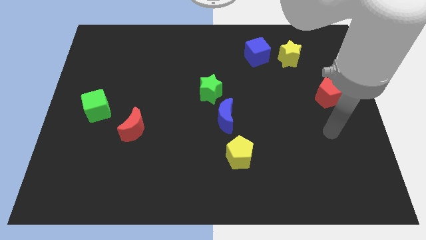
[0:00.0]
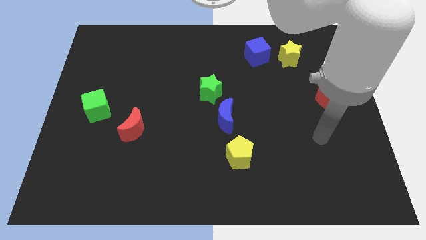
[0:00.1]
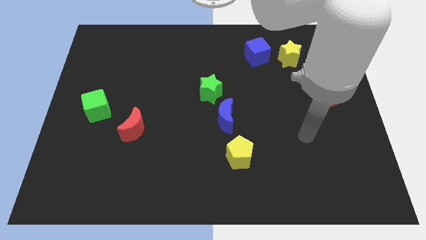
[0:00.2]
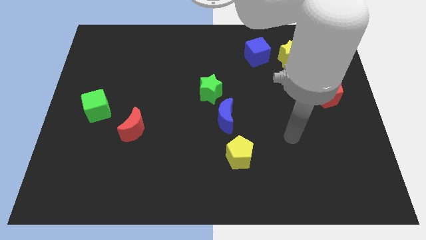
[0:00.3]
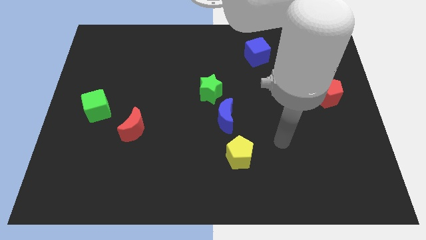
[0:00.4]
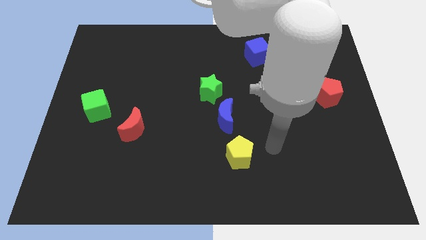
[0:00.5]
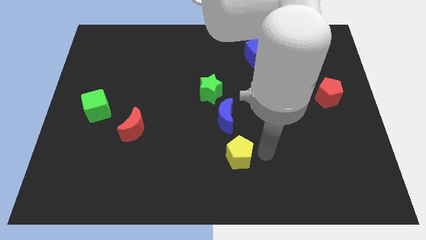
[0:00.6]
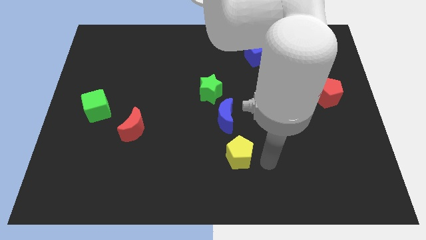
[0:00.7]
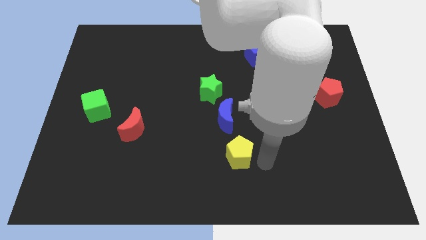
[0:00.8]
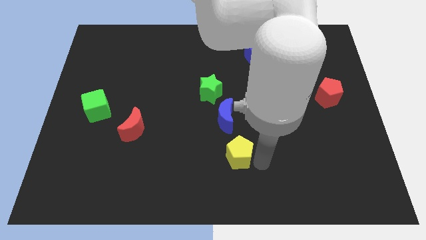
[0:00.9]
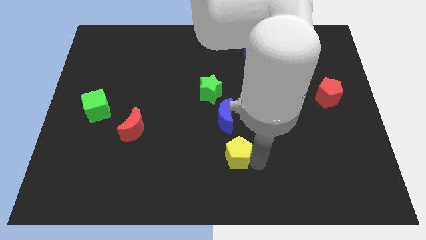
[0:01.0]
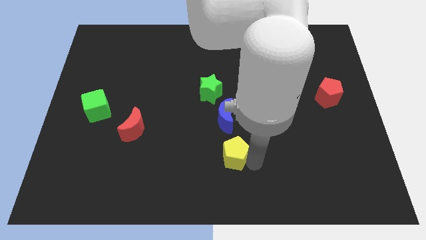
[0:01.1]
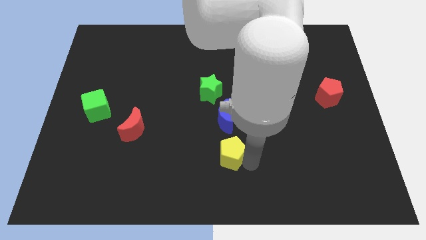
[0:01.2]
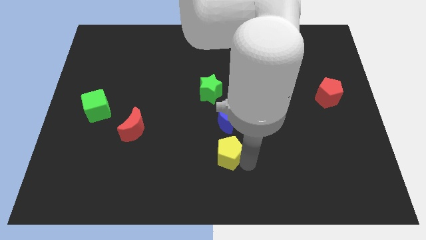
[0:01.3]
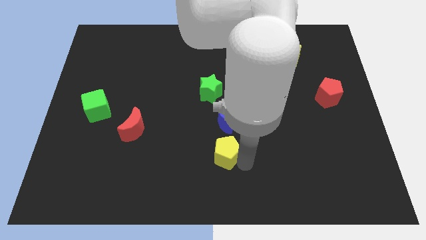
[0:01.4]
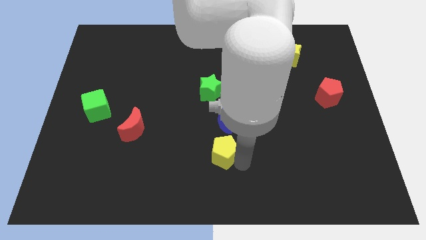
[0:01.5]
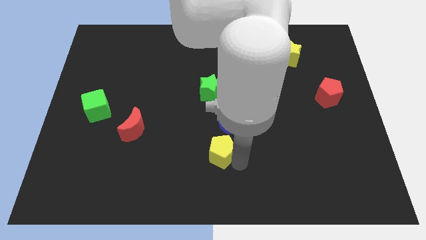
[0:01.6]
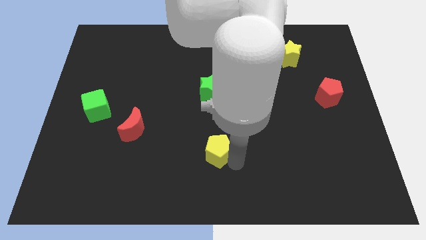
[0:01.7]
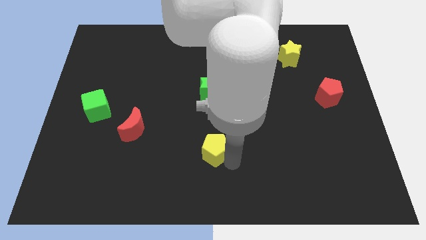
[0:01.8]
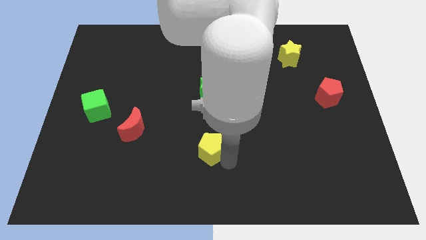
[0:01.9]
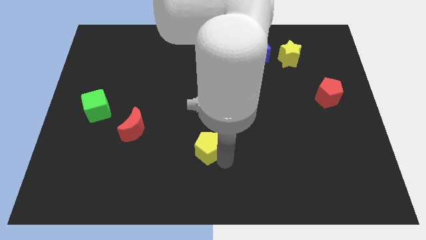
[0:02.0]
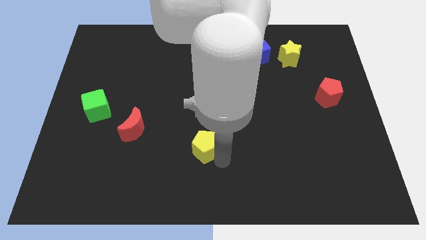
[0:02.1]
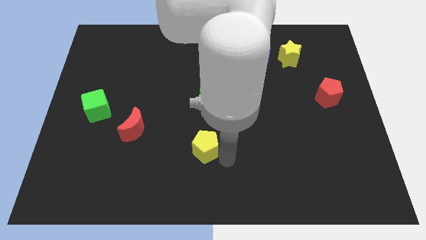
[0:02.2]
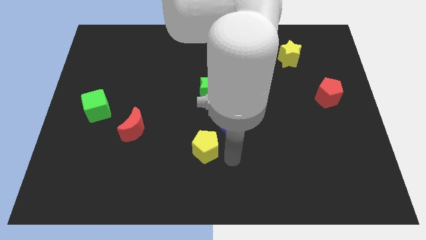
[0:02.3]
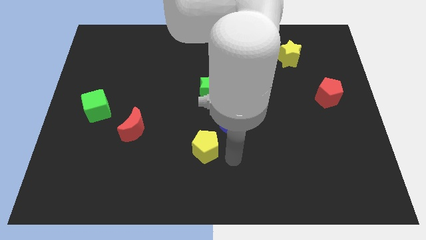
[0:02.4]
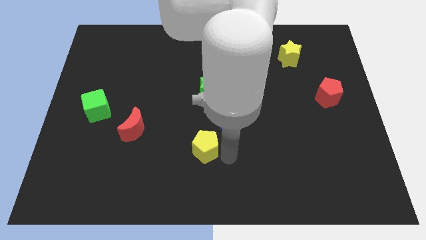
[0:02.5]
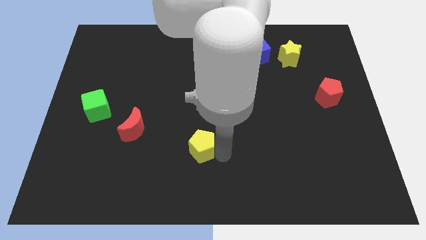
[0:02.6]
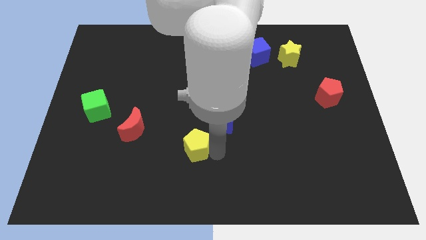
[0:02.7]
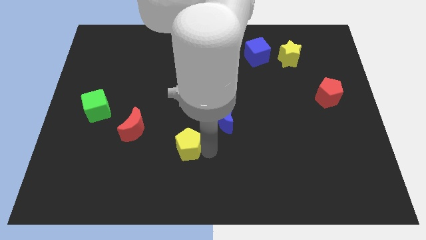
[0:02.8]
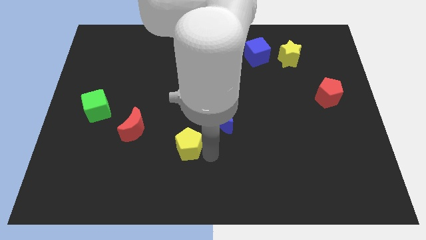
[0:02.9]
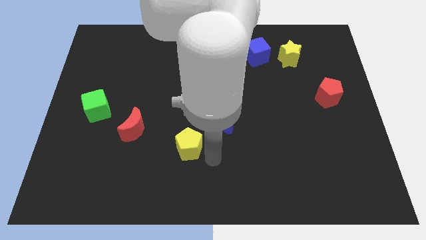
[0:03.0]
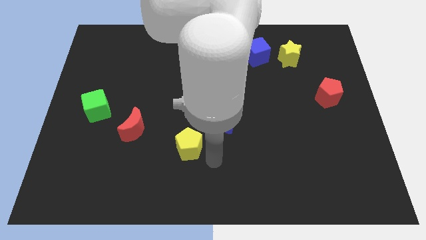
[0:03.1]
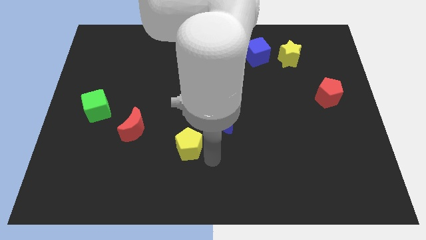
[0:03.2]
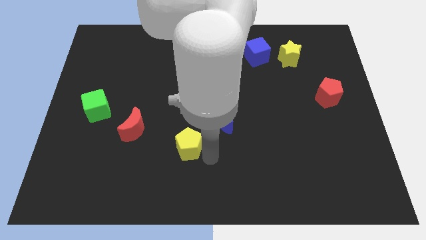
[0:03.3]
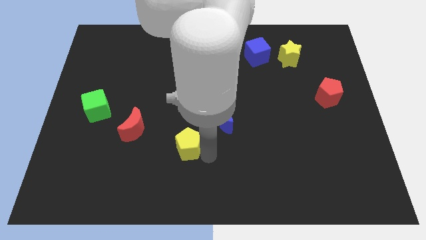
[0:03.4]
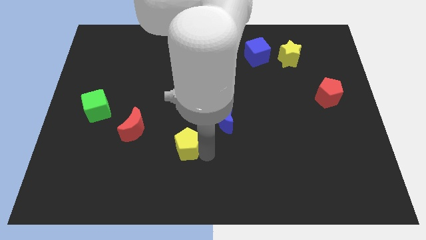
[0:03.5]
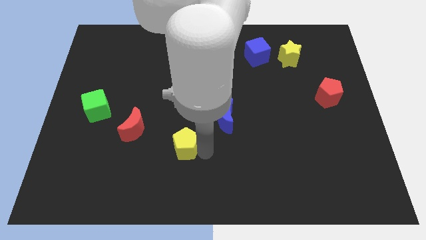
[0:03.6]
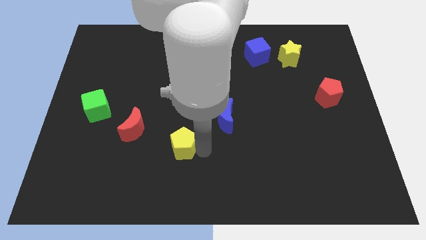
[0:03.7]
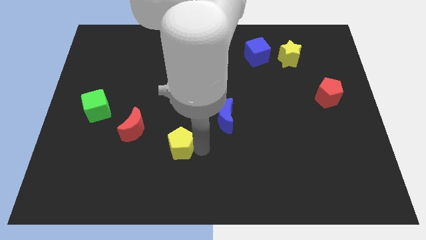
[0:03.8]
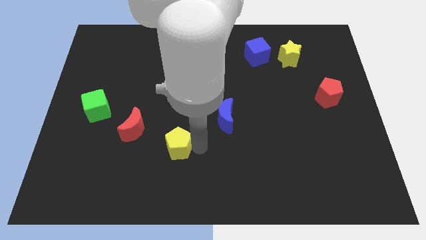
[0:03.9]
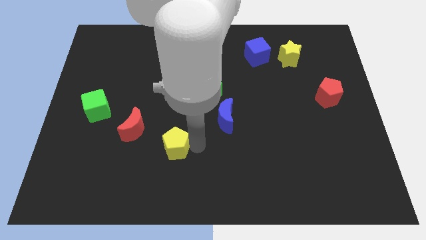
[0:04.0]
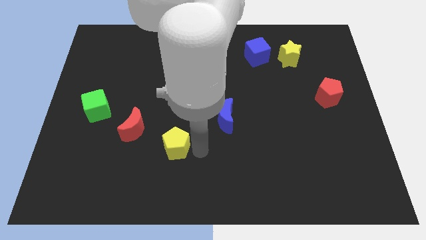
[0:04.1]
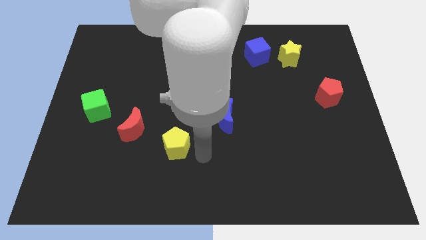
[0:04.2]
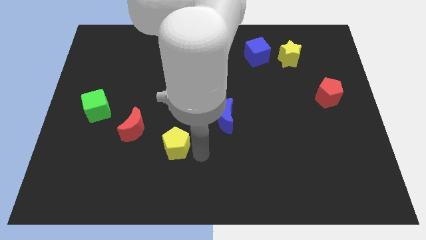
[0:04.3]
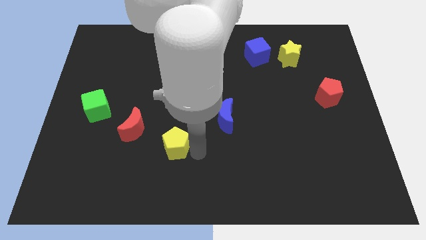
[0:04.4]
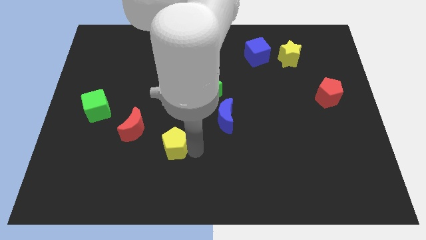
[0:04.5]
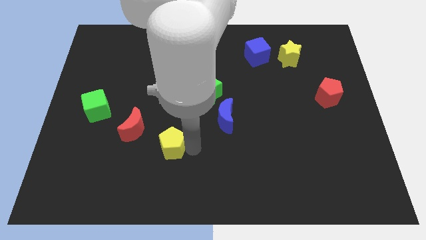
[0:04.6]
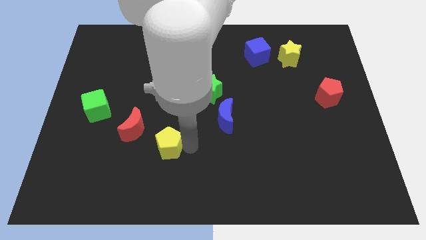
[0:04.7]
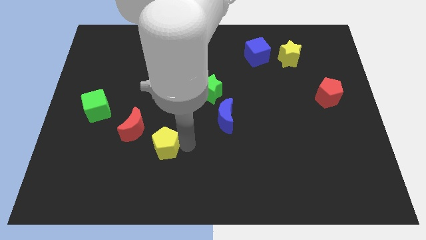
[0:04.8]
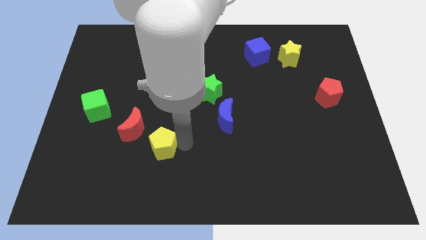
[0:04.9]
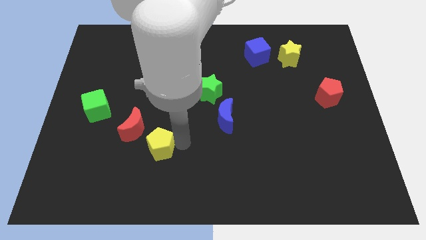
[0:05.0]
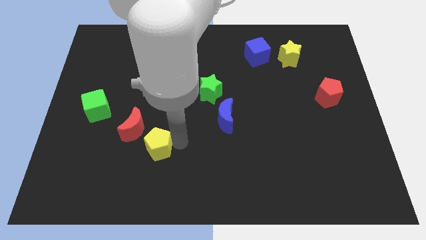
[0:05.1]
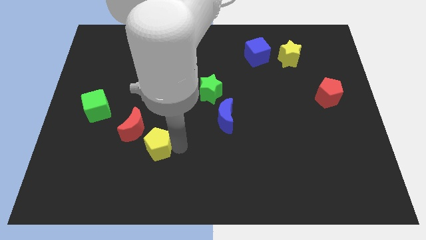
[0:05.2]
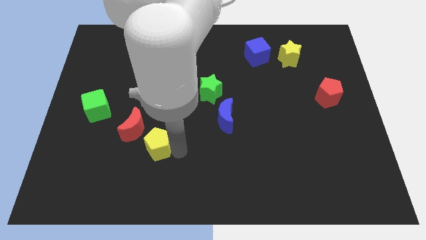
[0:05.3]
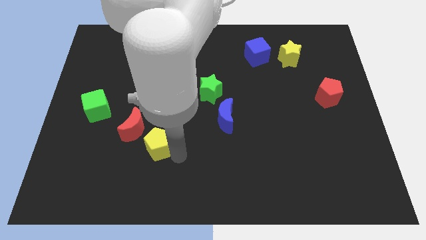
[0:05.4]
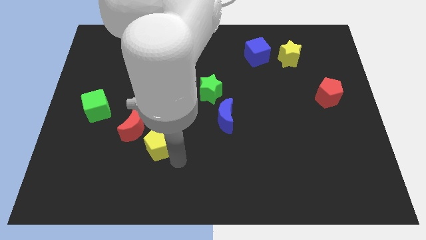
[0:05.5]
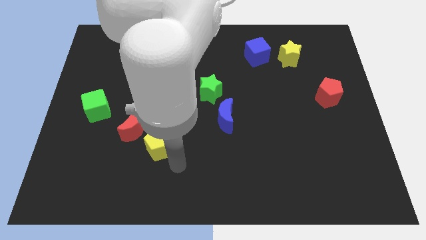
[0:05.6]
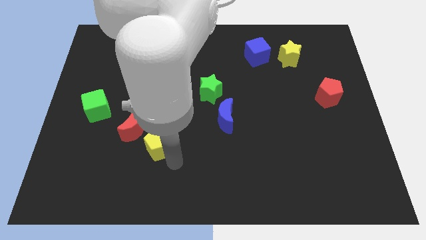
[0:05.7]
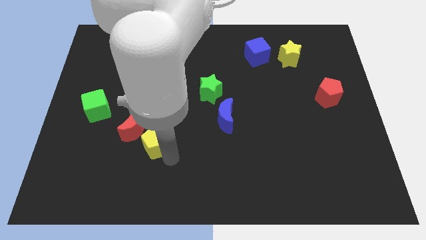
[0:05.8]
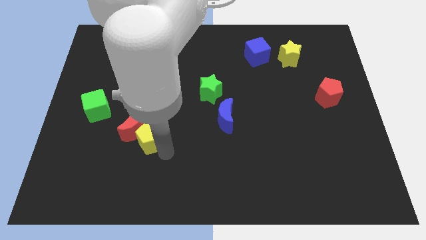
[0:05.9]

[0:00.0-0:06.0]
move the yellow pentagon next to the red moon

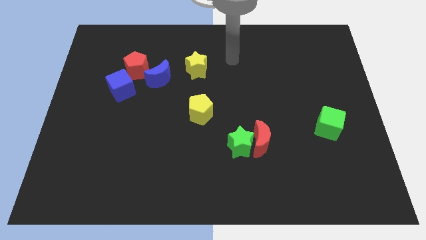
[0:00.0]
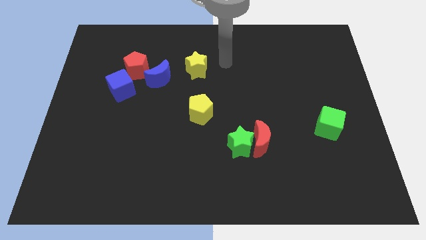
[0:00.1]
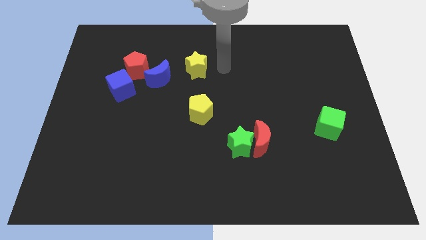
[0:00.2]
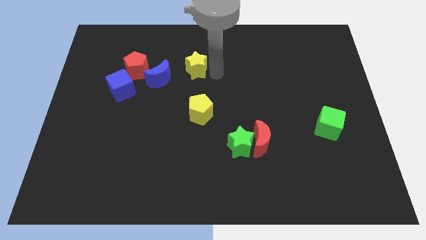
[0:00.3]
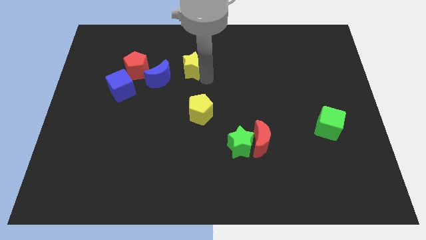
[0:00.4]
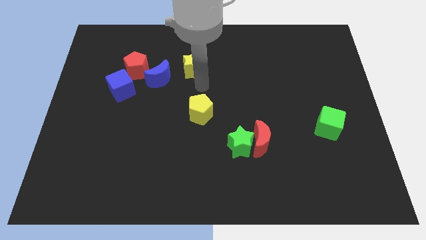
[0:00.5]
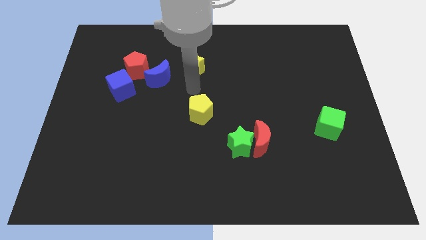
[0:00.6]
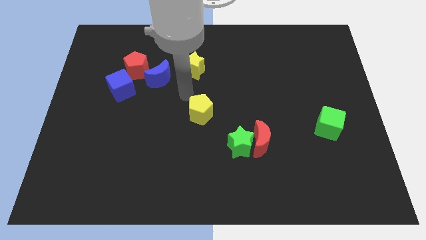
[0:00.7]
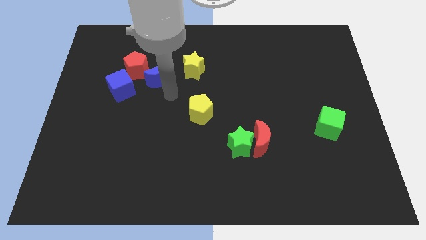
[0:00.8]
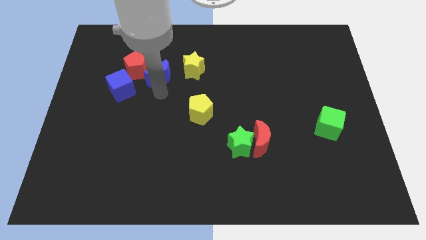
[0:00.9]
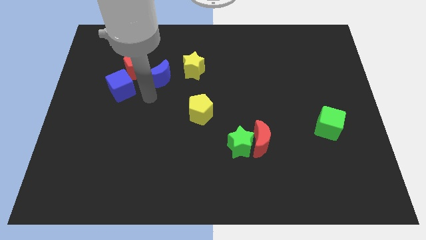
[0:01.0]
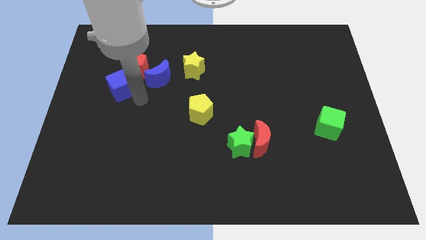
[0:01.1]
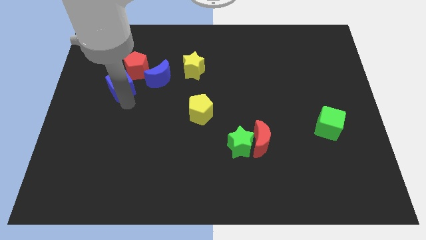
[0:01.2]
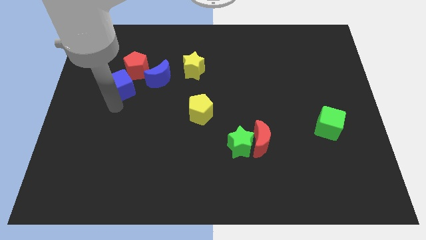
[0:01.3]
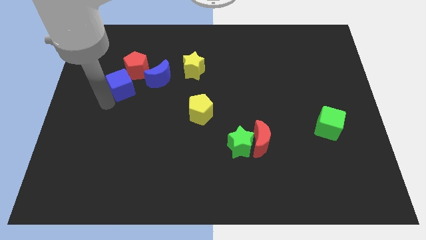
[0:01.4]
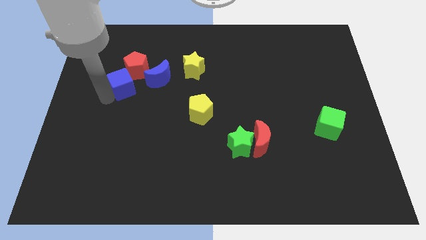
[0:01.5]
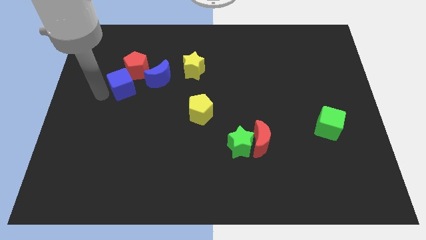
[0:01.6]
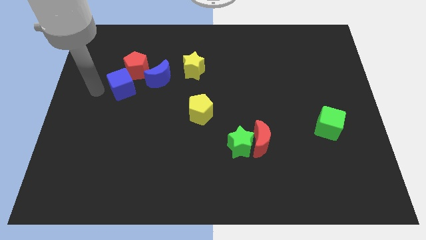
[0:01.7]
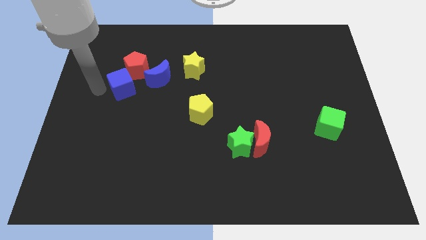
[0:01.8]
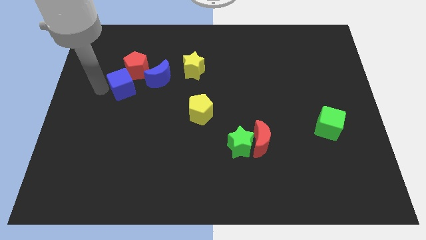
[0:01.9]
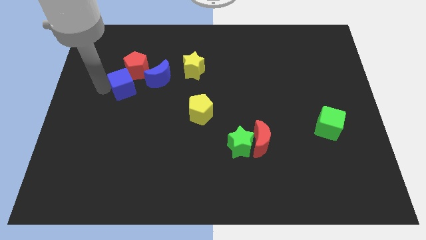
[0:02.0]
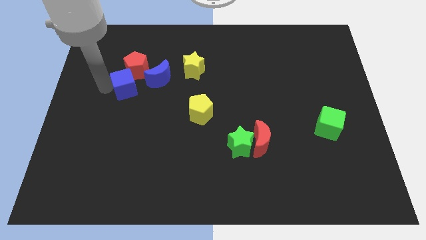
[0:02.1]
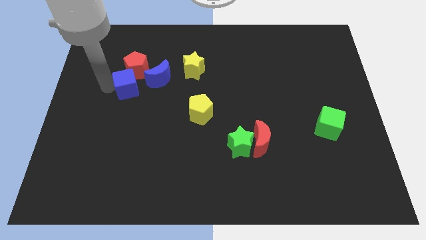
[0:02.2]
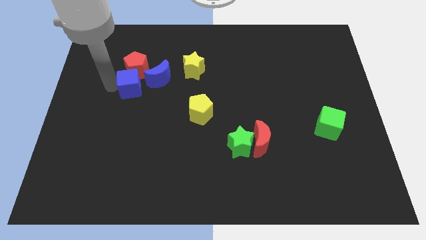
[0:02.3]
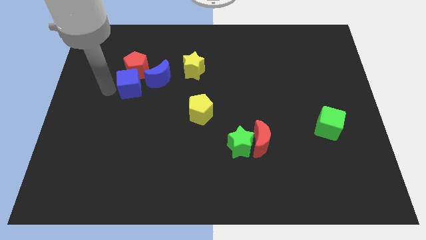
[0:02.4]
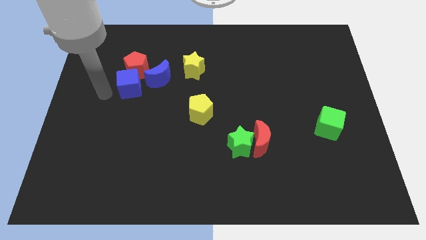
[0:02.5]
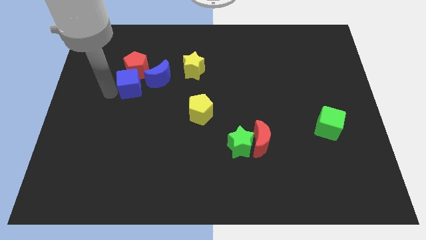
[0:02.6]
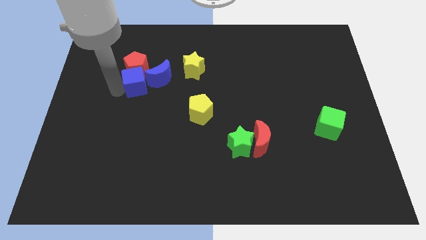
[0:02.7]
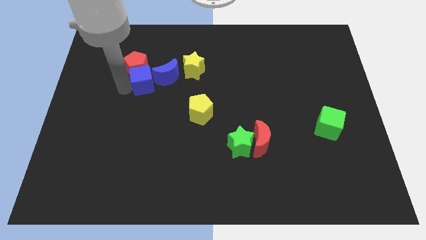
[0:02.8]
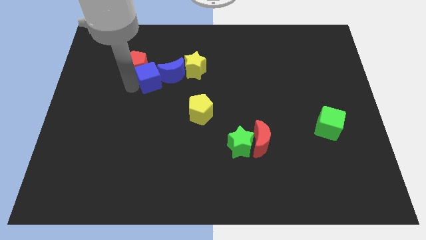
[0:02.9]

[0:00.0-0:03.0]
put the blue cube to the blue moon
